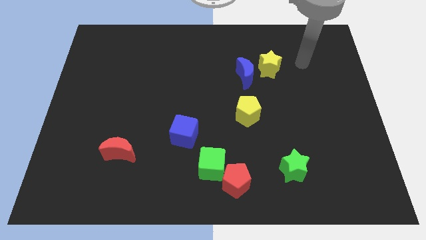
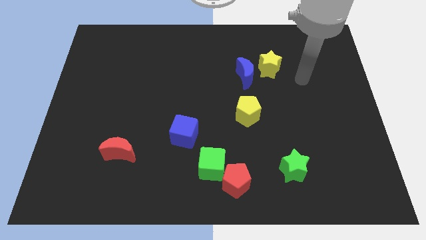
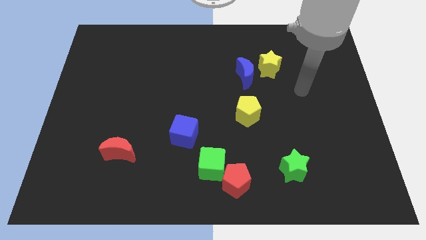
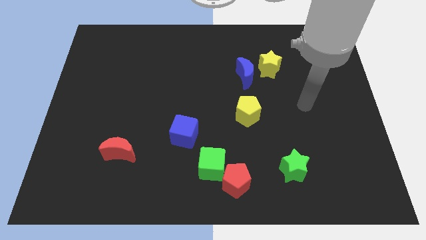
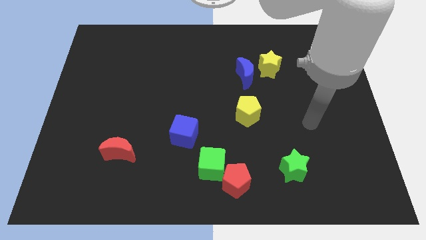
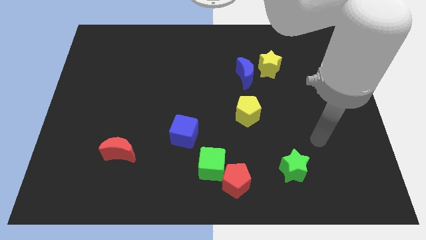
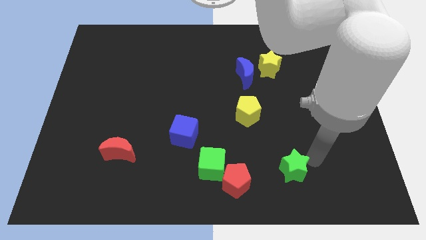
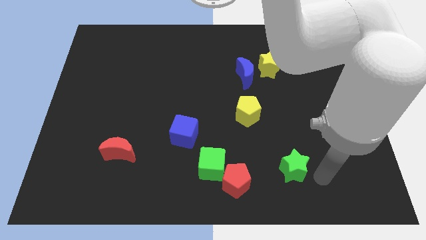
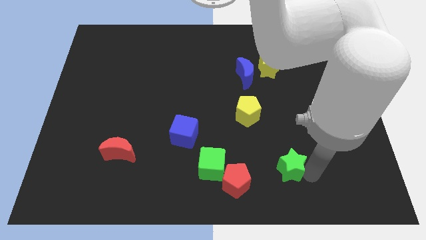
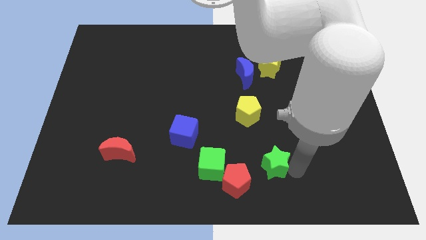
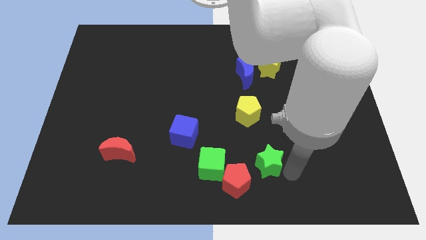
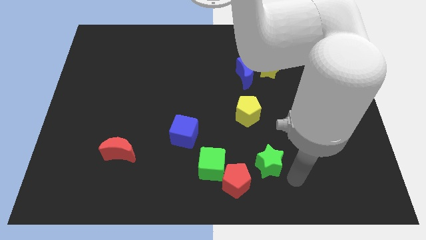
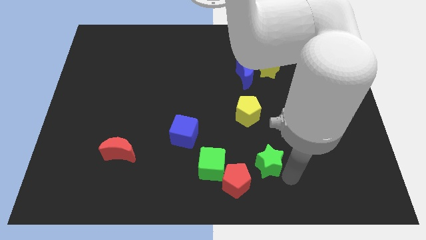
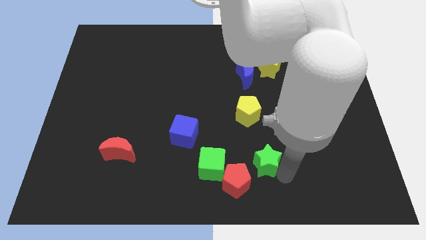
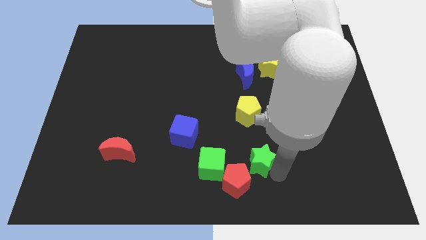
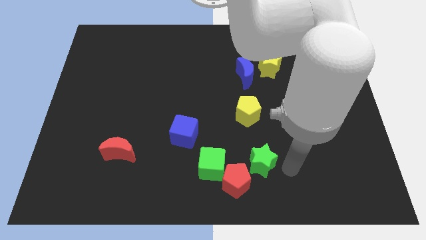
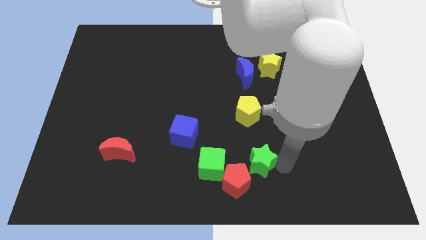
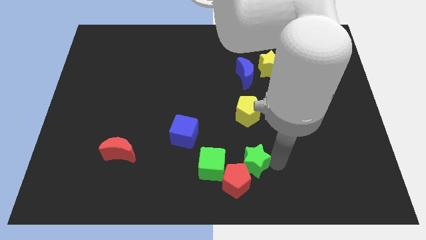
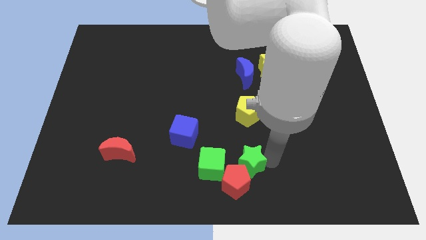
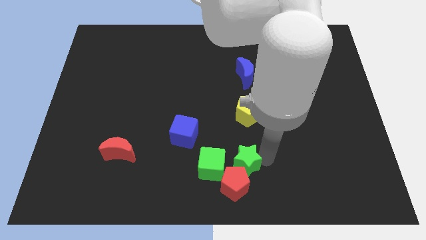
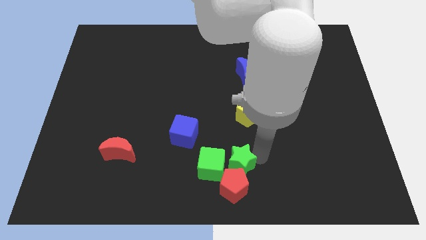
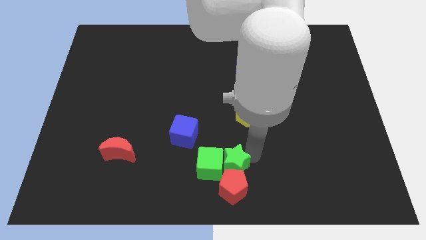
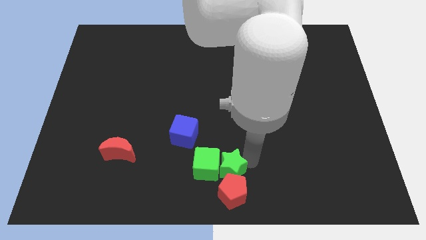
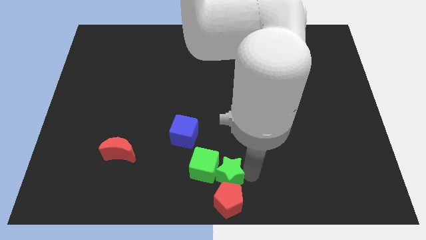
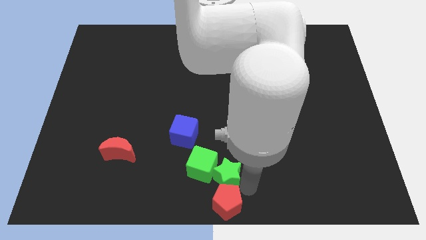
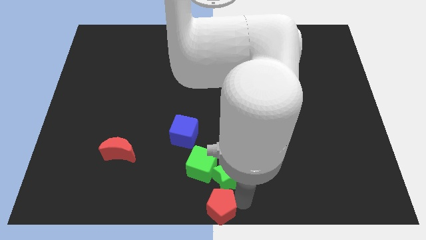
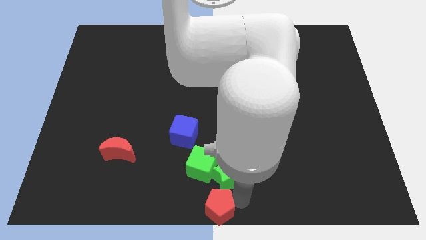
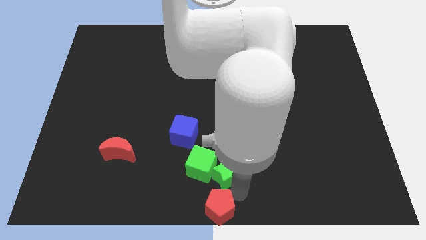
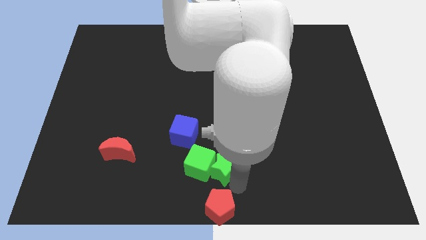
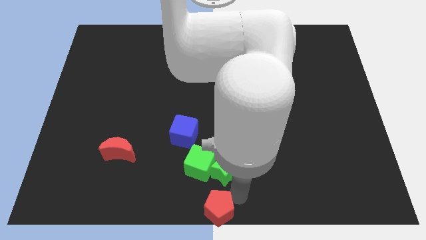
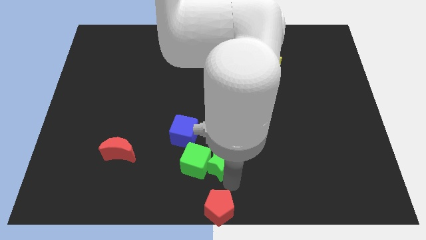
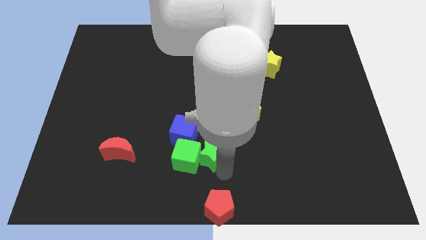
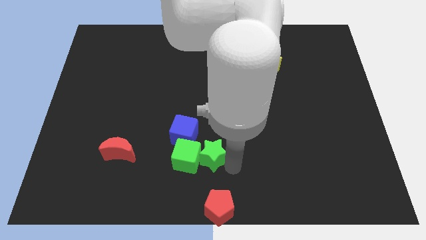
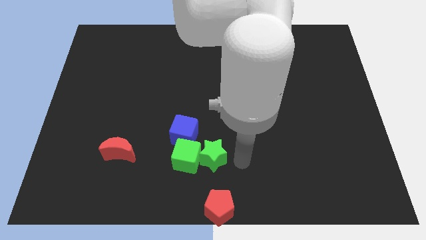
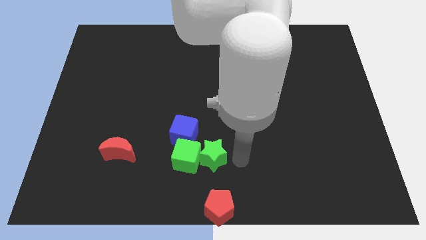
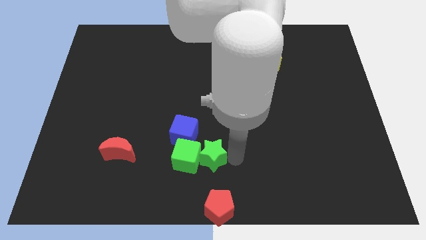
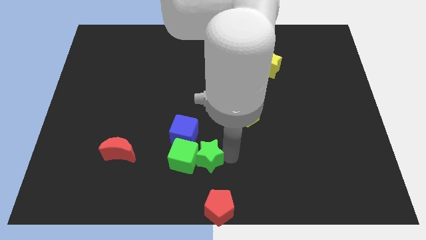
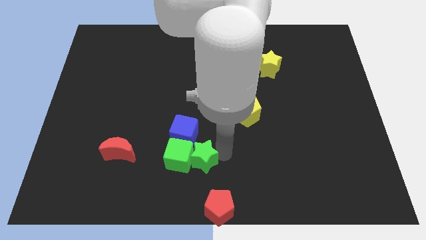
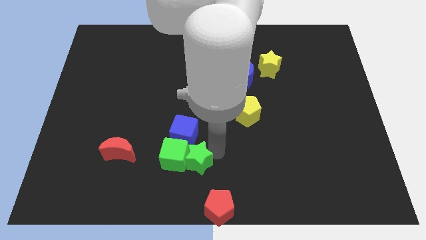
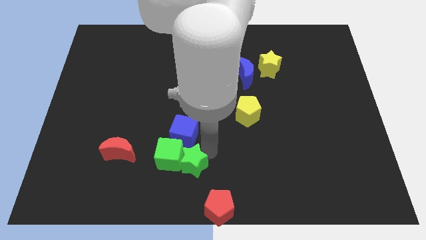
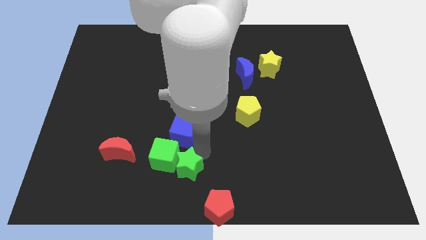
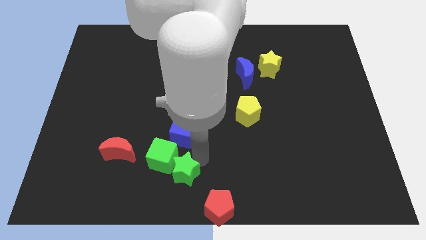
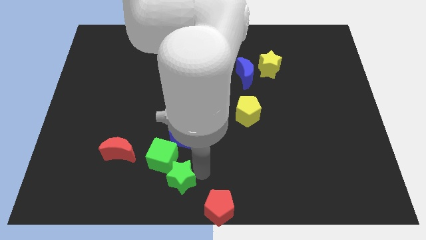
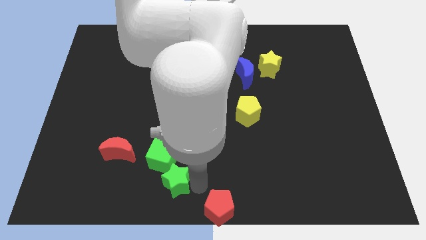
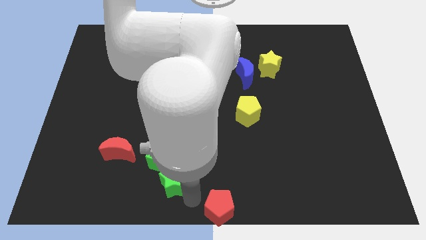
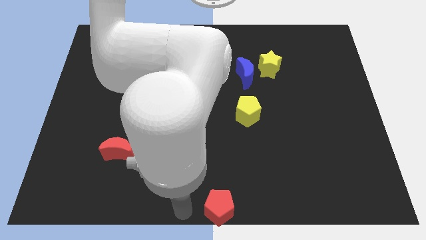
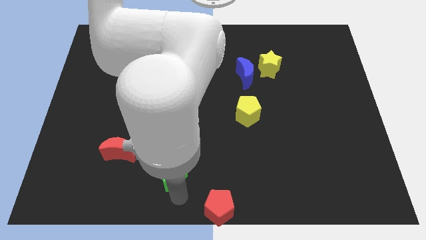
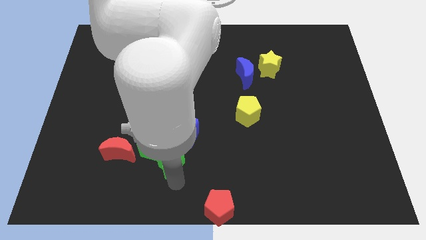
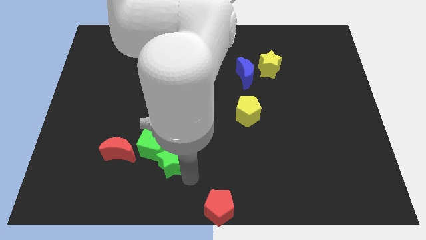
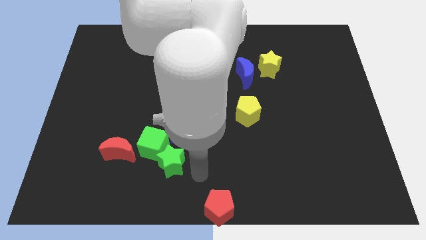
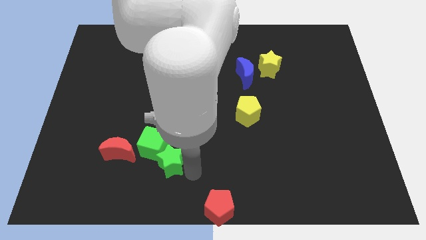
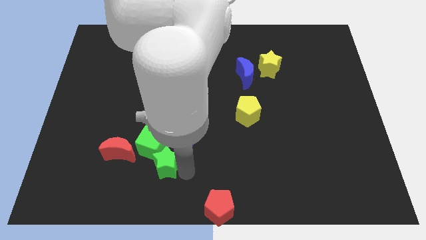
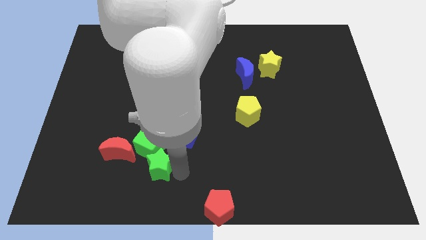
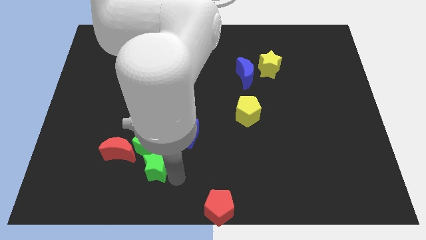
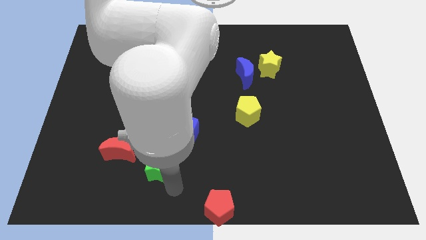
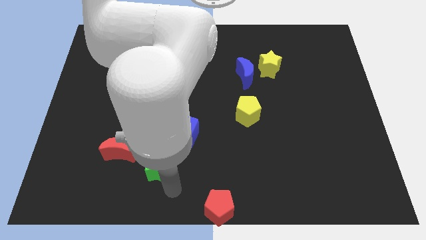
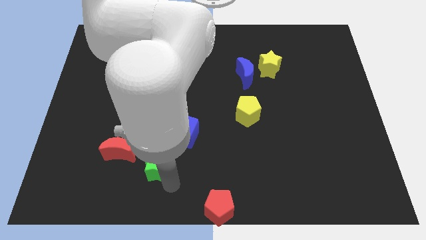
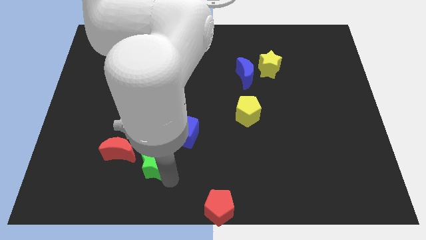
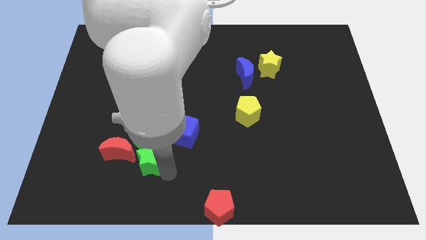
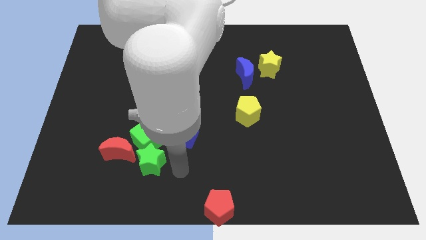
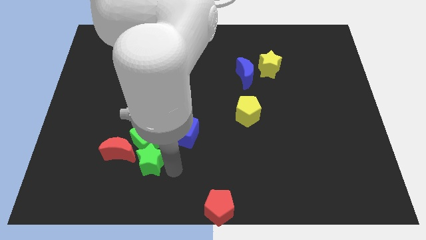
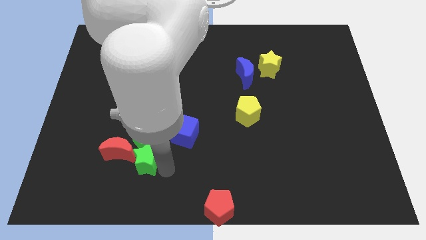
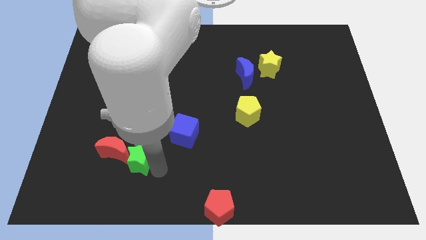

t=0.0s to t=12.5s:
move the green star towards the red moon

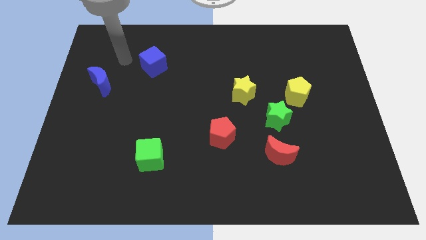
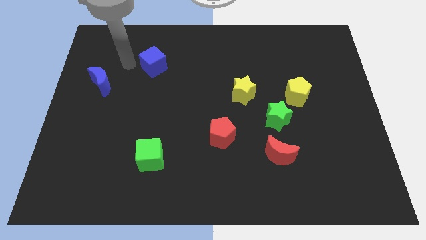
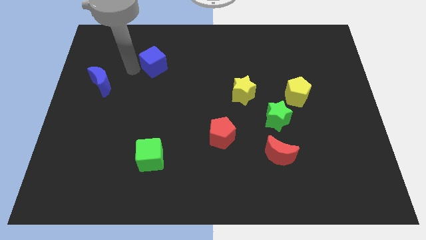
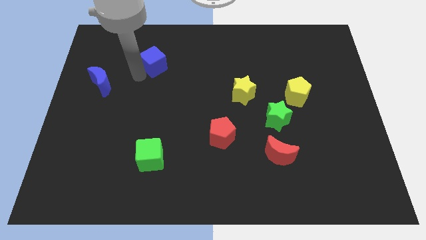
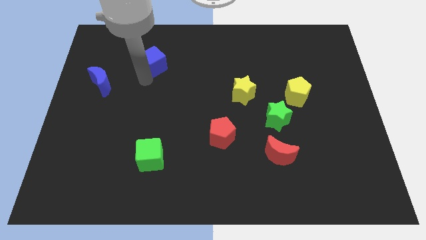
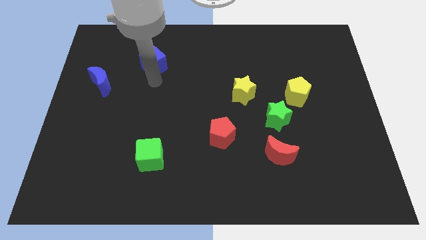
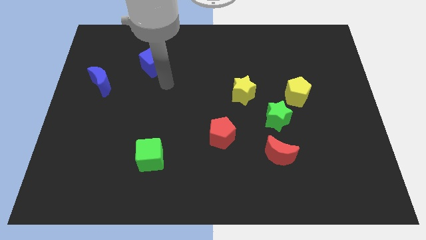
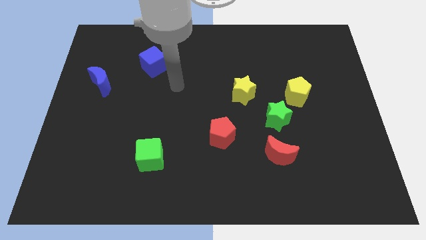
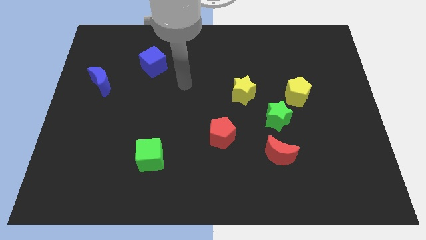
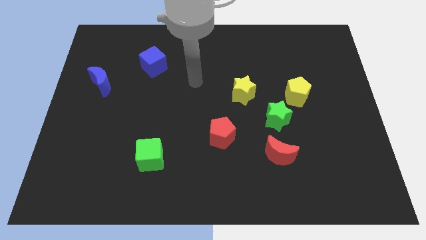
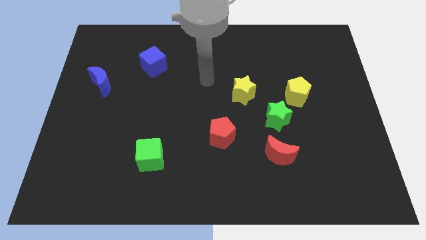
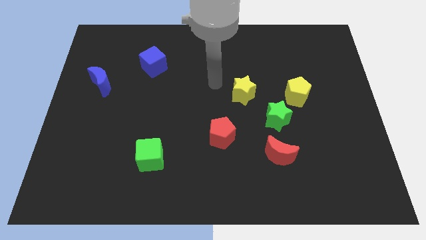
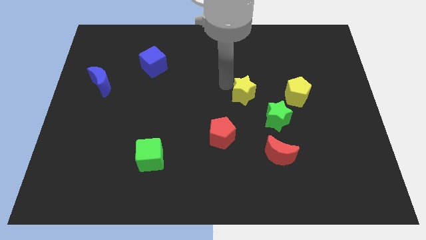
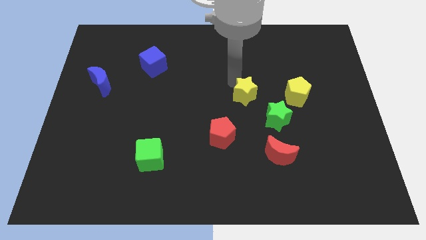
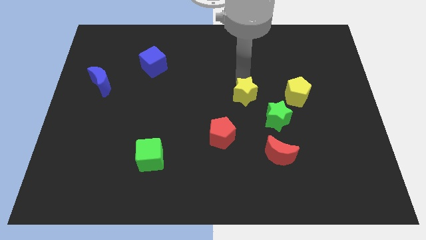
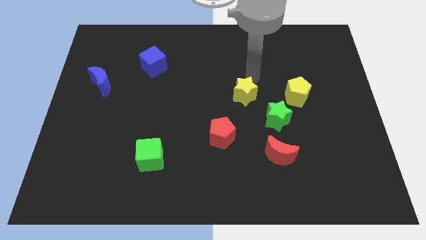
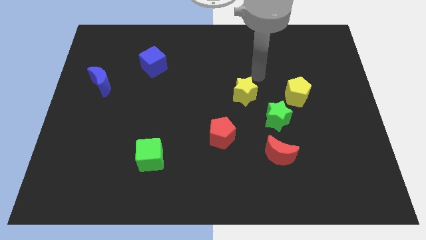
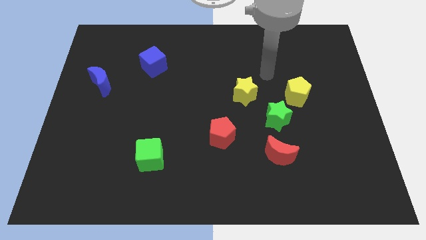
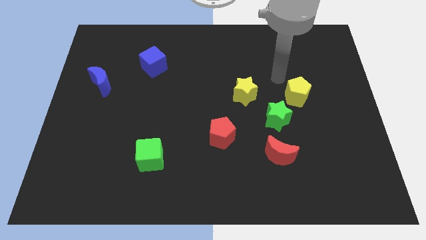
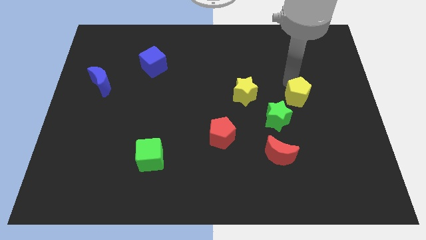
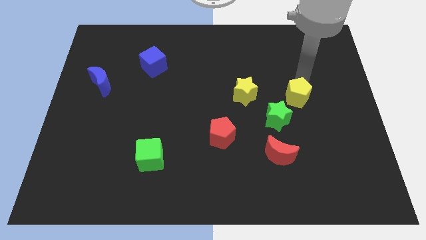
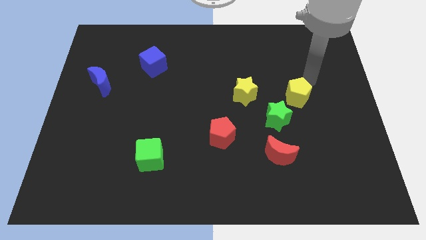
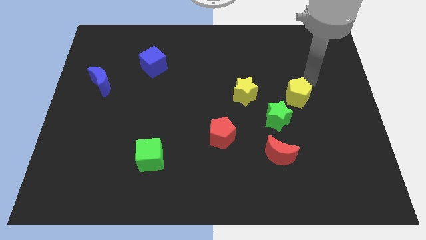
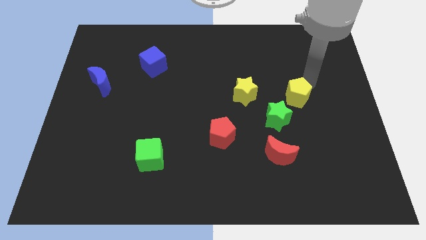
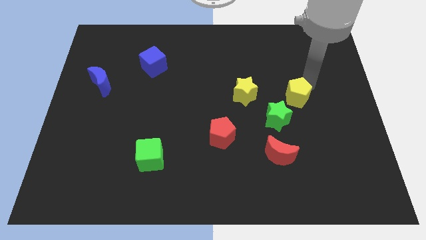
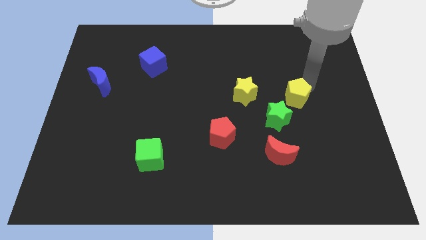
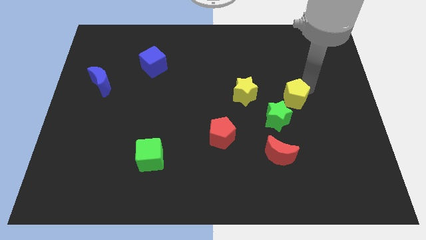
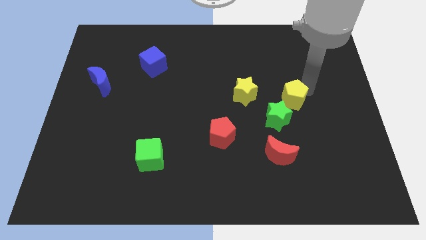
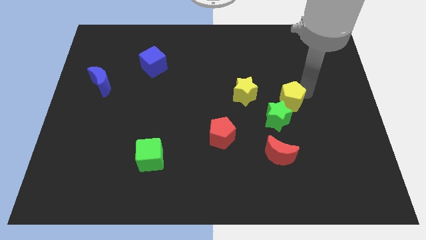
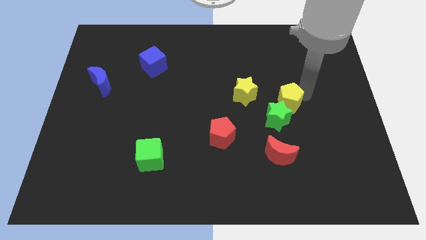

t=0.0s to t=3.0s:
slide the yellow pentagon to the green star
